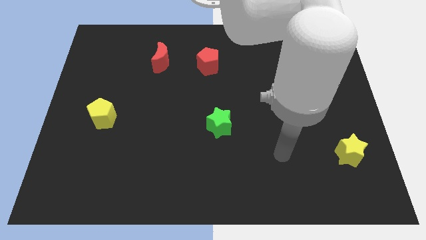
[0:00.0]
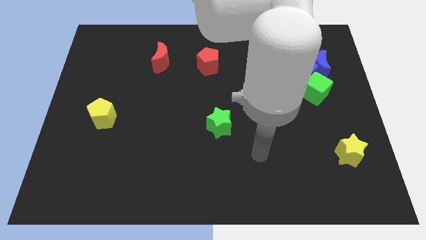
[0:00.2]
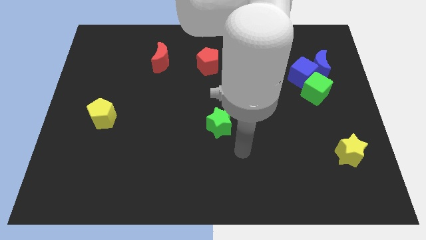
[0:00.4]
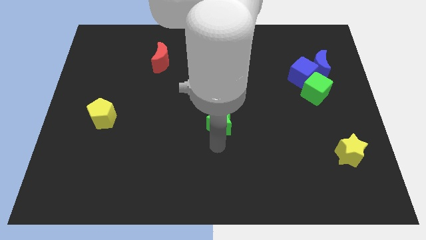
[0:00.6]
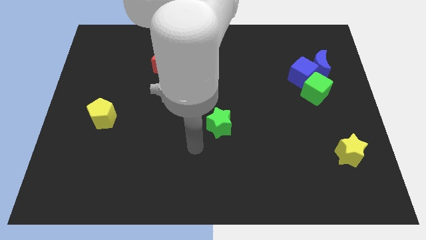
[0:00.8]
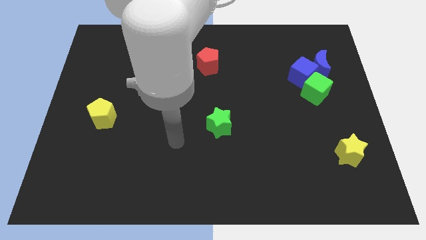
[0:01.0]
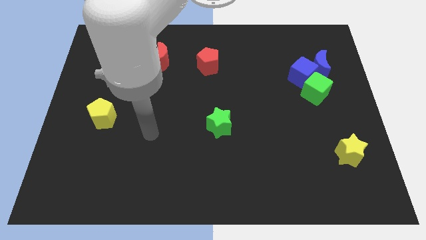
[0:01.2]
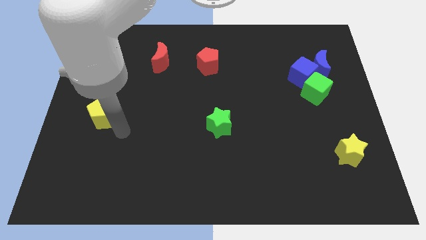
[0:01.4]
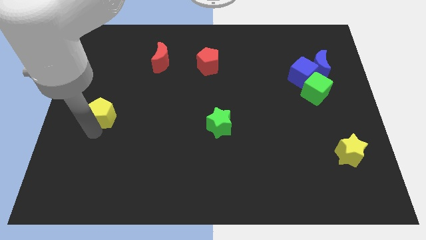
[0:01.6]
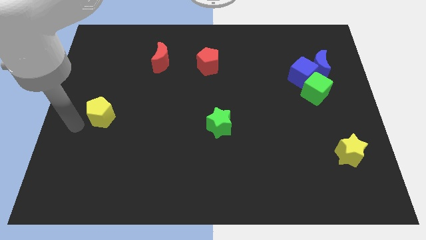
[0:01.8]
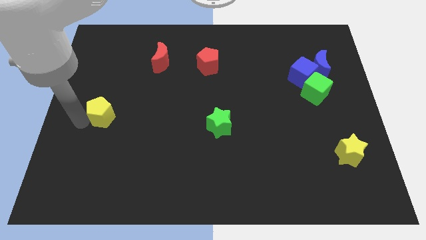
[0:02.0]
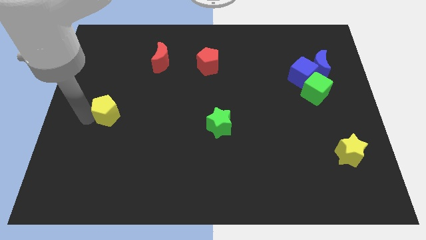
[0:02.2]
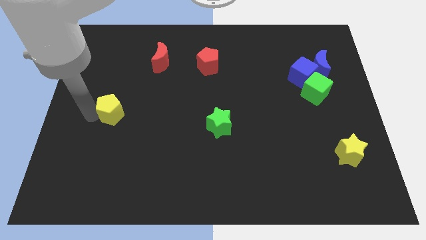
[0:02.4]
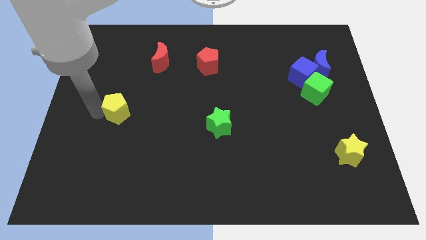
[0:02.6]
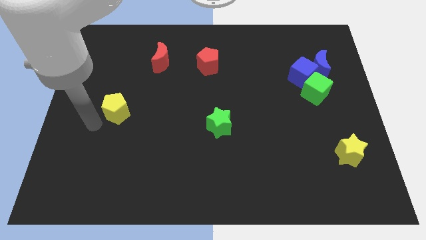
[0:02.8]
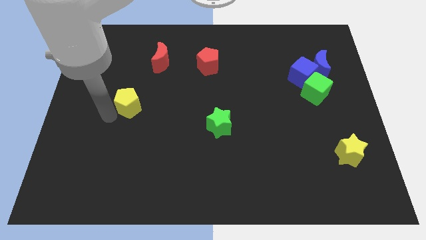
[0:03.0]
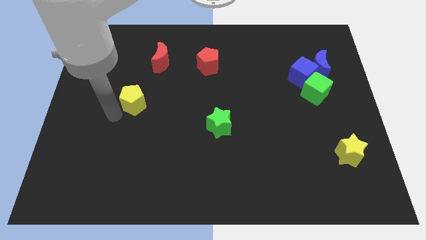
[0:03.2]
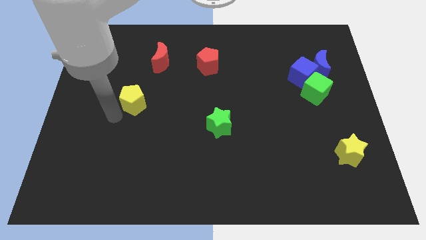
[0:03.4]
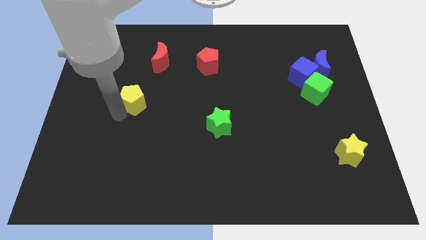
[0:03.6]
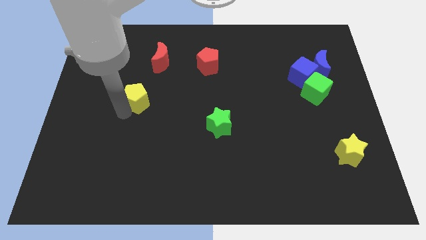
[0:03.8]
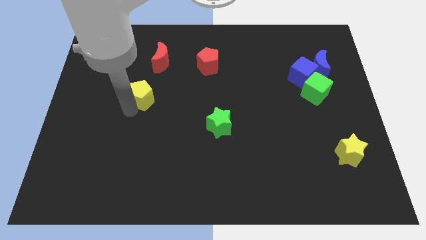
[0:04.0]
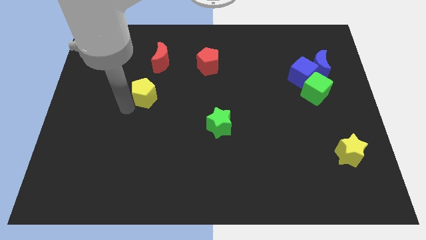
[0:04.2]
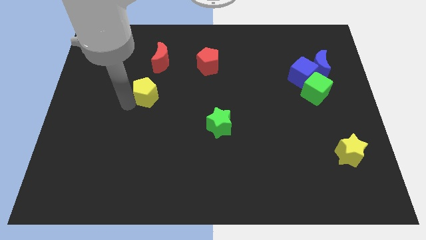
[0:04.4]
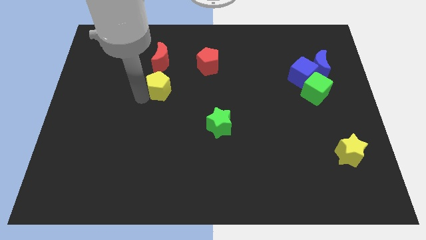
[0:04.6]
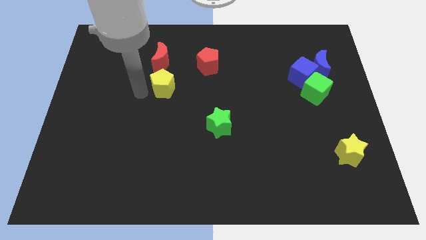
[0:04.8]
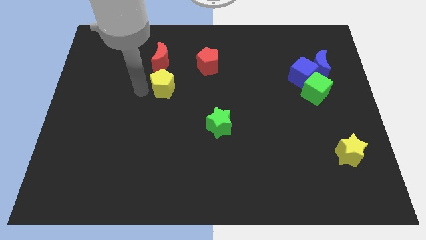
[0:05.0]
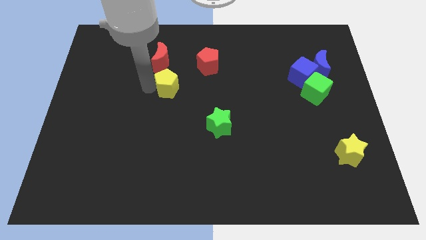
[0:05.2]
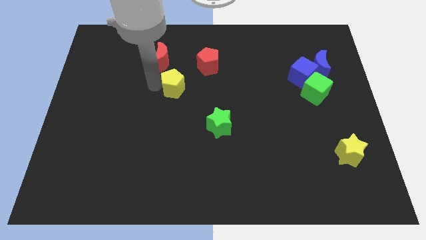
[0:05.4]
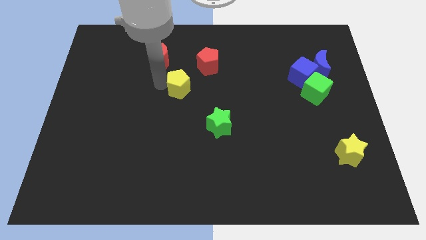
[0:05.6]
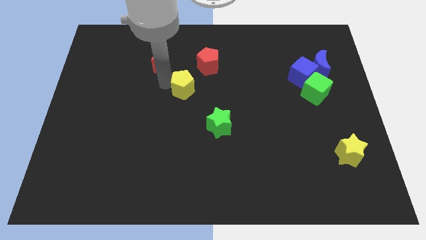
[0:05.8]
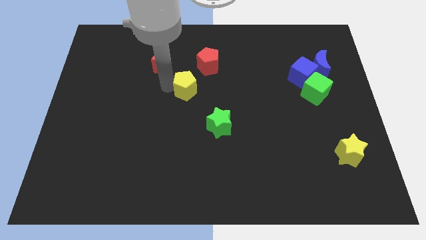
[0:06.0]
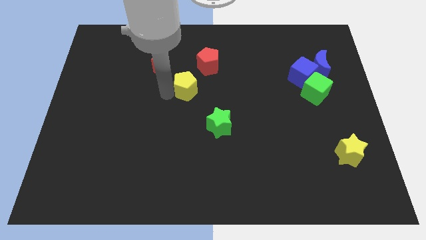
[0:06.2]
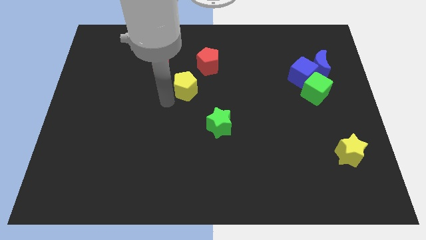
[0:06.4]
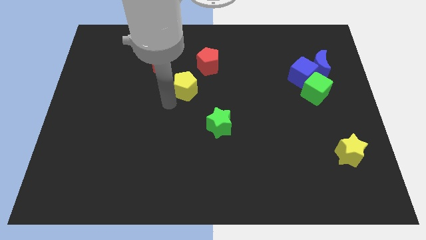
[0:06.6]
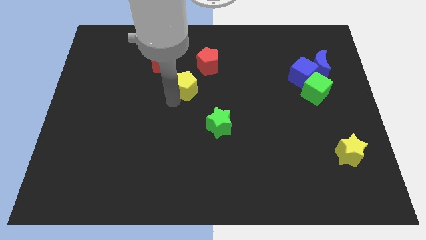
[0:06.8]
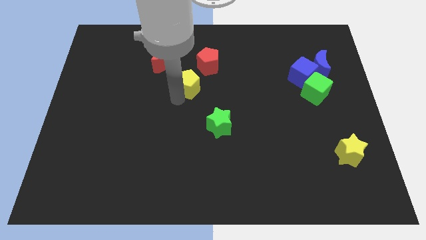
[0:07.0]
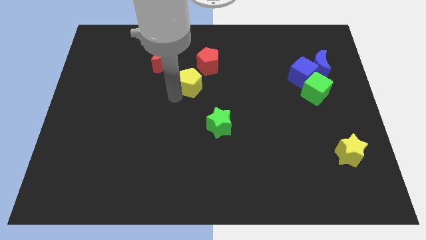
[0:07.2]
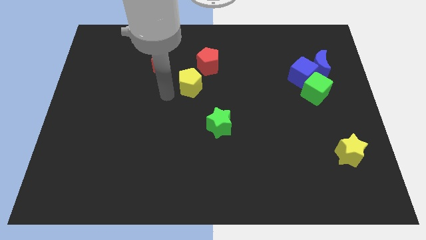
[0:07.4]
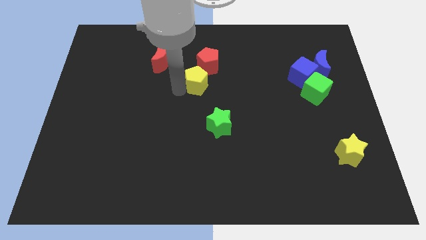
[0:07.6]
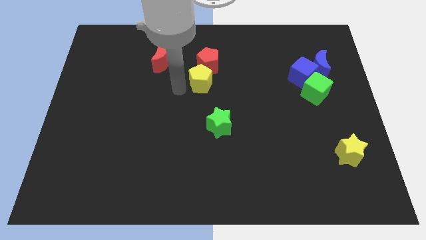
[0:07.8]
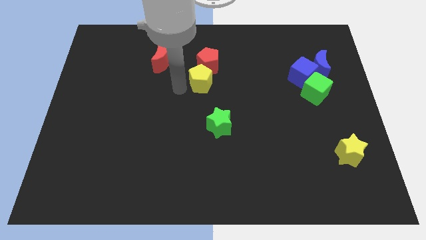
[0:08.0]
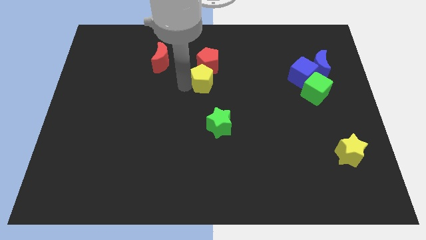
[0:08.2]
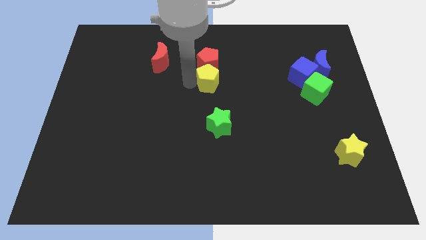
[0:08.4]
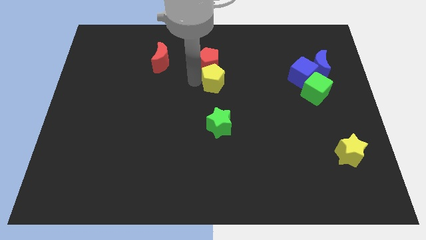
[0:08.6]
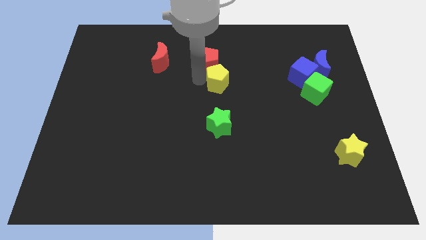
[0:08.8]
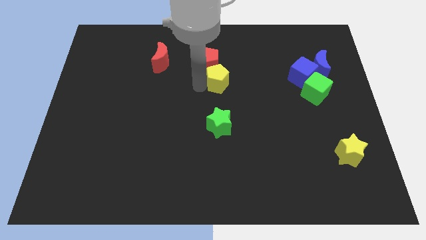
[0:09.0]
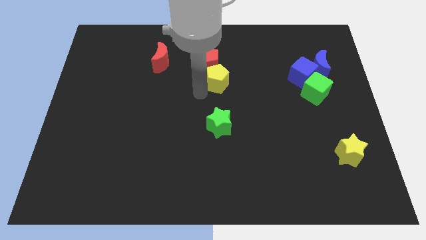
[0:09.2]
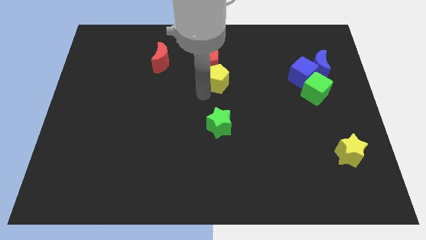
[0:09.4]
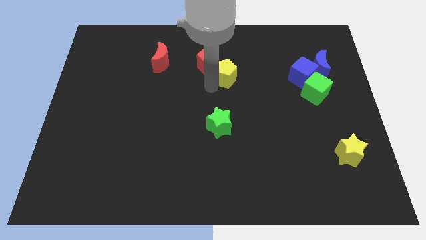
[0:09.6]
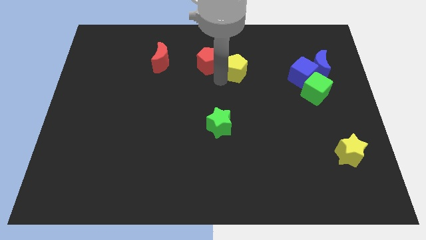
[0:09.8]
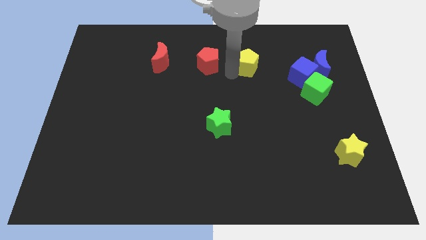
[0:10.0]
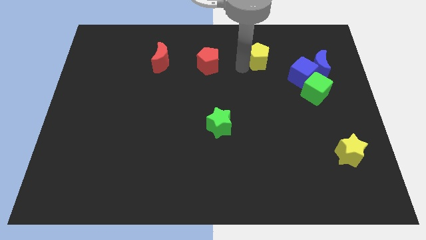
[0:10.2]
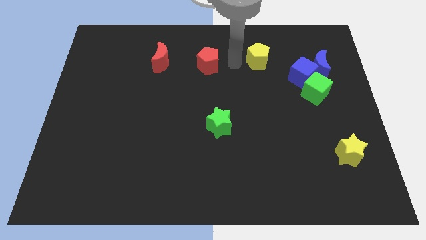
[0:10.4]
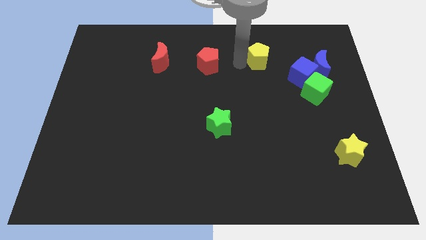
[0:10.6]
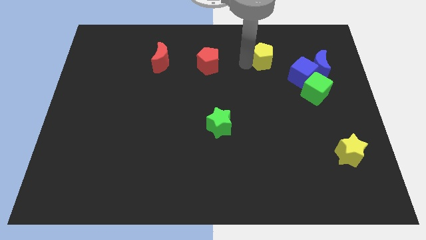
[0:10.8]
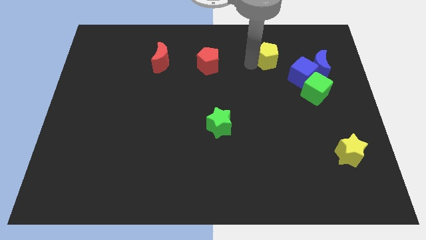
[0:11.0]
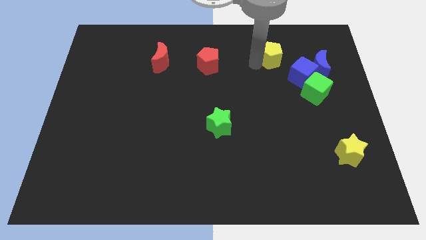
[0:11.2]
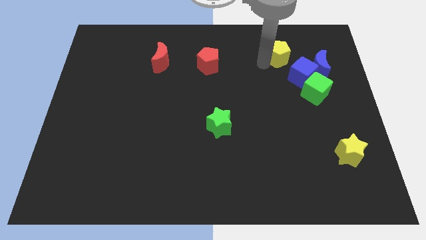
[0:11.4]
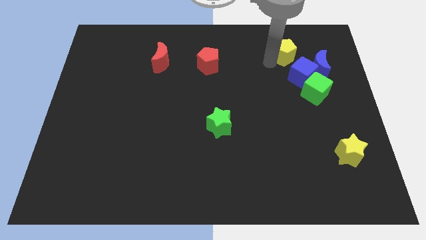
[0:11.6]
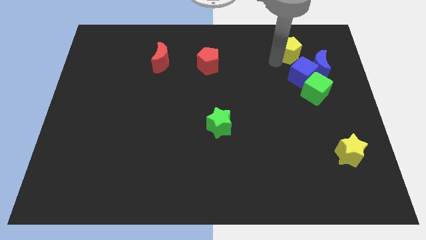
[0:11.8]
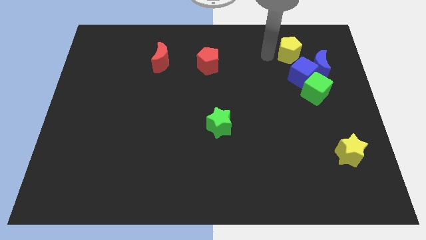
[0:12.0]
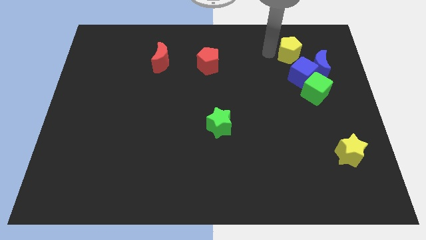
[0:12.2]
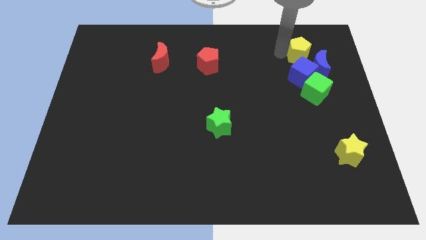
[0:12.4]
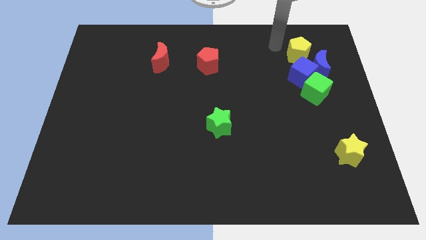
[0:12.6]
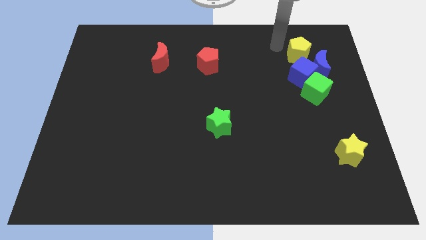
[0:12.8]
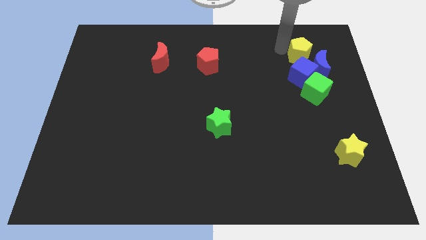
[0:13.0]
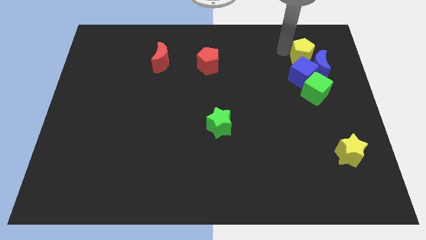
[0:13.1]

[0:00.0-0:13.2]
move the yellow pentagon diagonally up and to the right of the blue cube

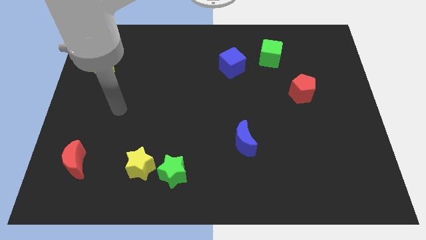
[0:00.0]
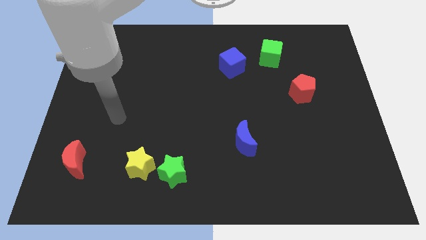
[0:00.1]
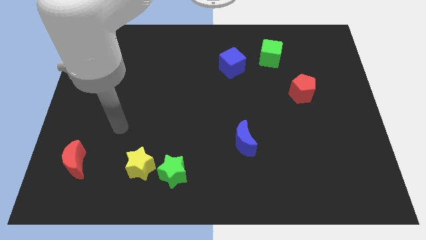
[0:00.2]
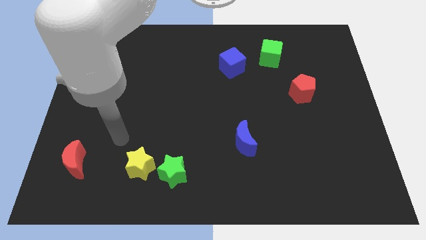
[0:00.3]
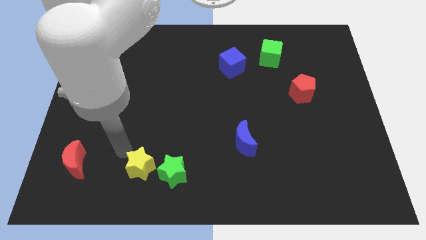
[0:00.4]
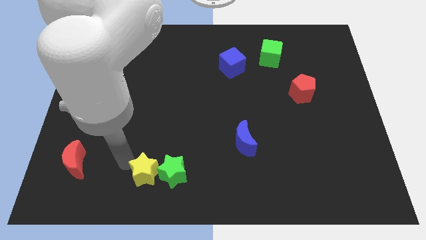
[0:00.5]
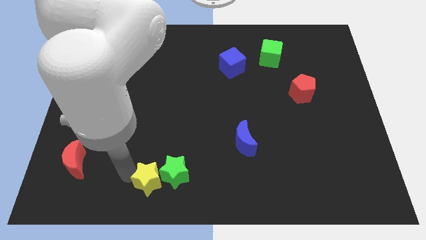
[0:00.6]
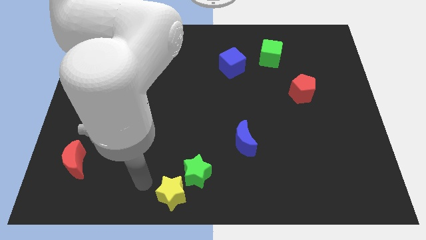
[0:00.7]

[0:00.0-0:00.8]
push the green star to the bottom left of the blue moon
